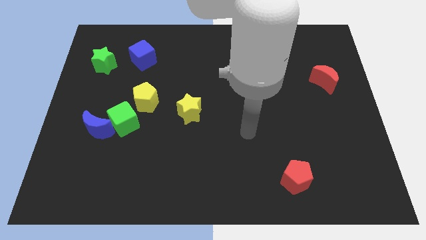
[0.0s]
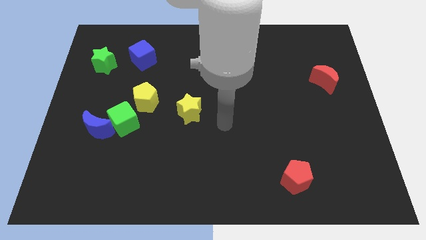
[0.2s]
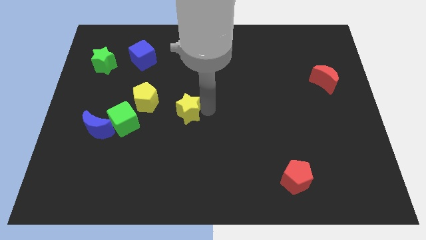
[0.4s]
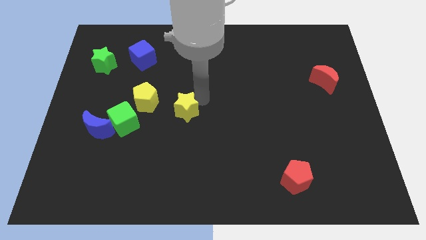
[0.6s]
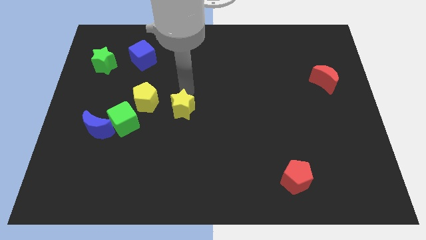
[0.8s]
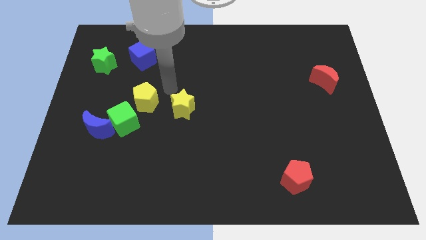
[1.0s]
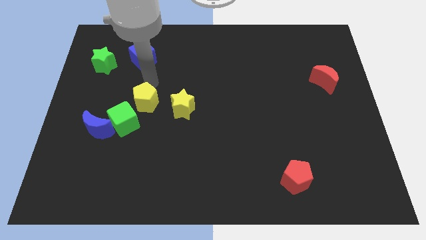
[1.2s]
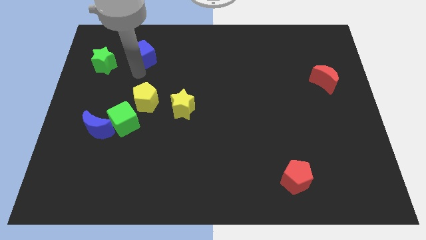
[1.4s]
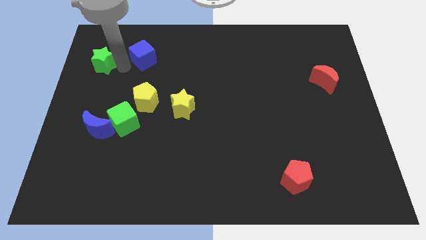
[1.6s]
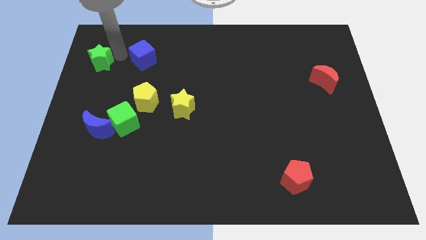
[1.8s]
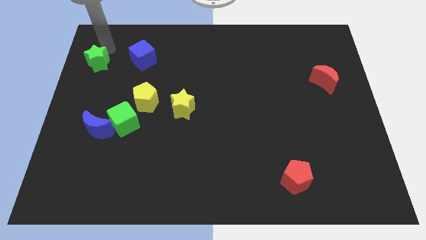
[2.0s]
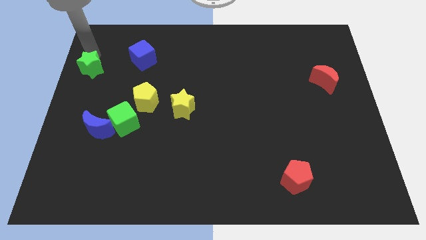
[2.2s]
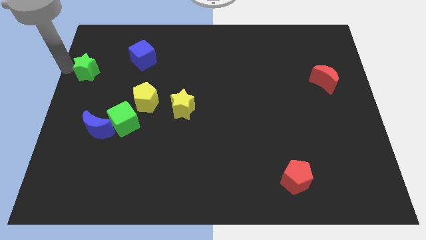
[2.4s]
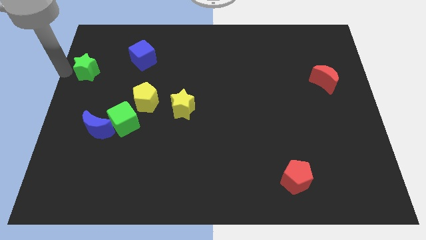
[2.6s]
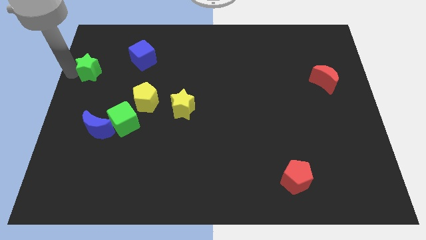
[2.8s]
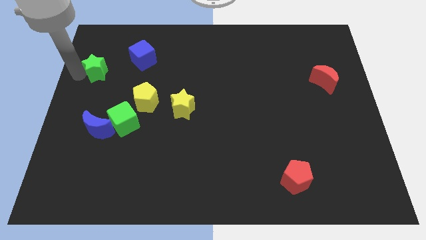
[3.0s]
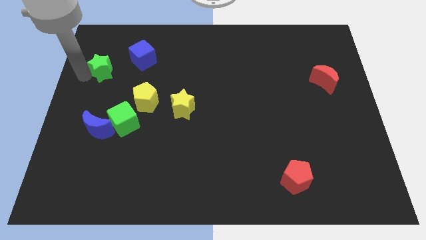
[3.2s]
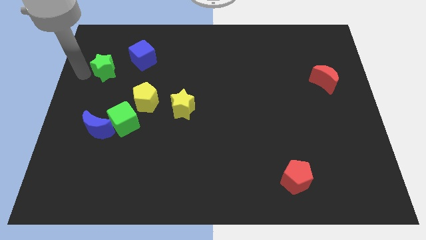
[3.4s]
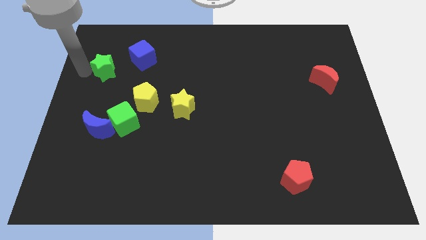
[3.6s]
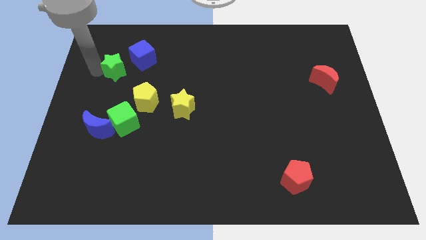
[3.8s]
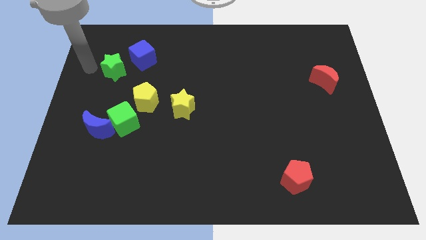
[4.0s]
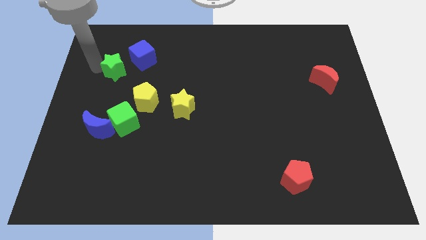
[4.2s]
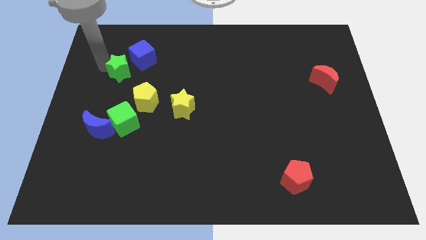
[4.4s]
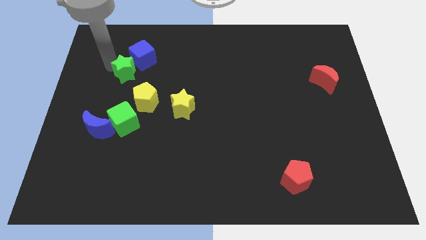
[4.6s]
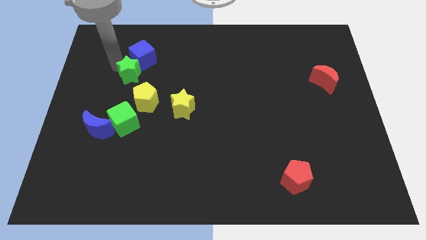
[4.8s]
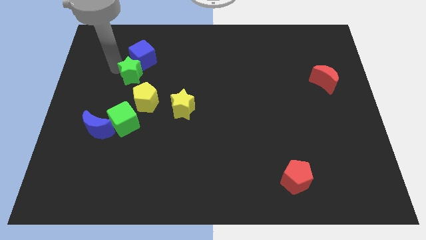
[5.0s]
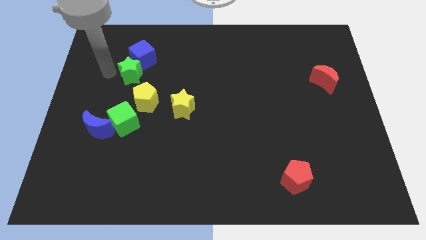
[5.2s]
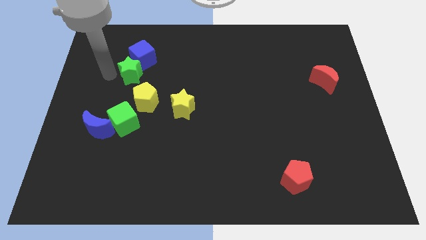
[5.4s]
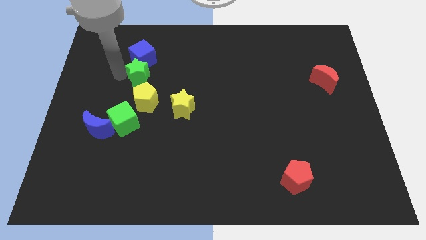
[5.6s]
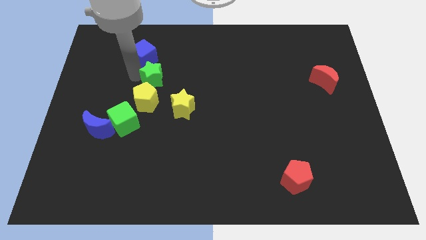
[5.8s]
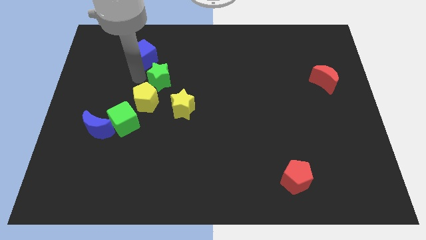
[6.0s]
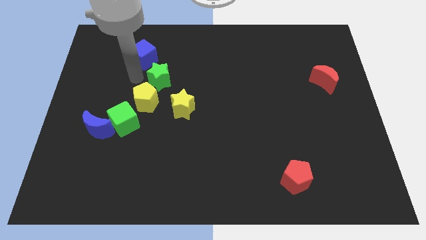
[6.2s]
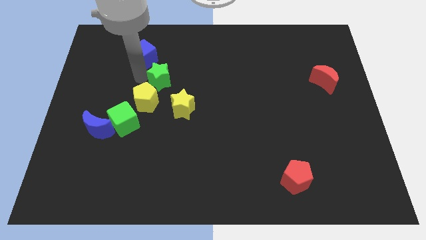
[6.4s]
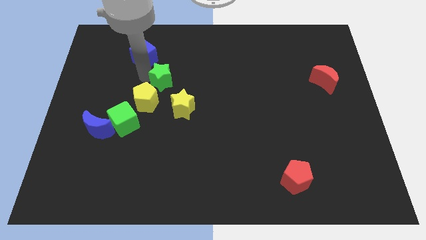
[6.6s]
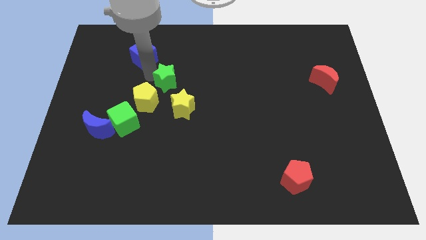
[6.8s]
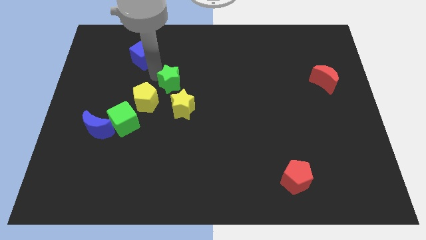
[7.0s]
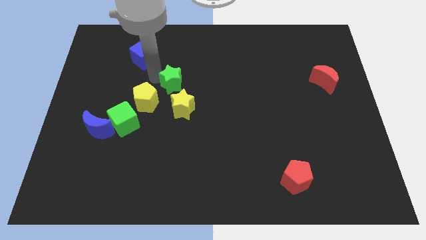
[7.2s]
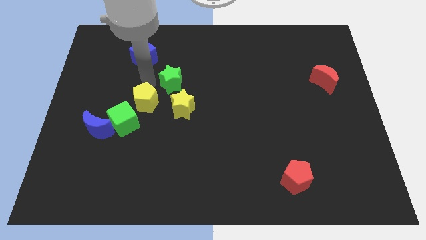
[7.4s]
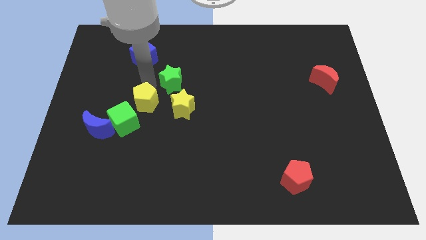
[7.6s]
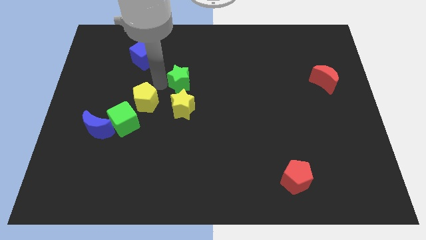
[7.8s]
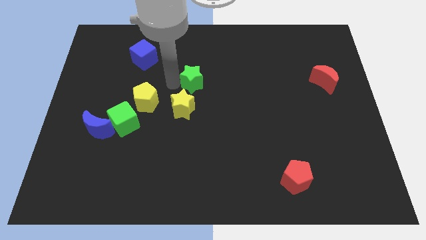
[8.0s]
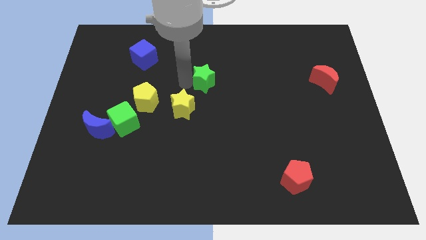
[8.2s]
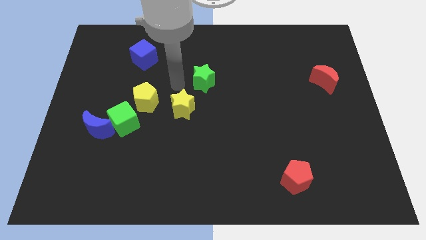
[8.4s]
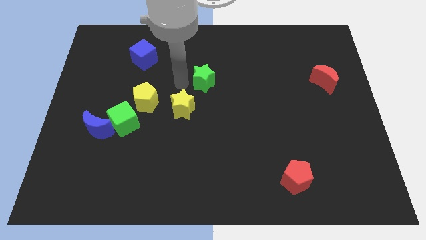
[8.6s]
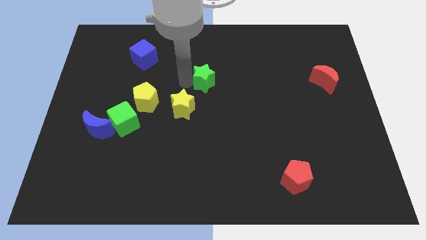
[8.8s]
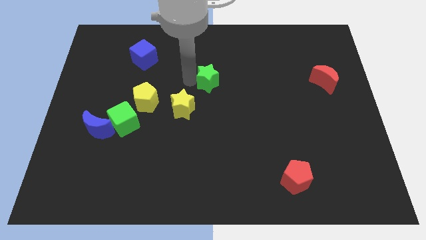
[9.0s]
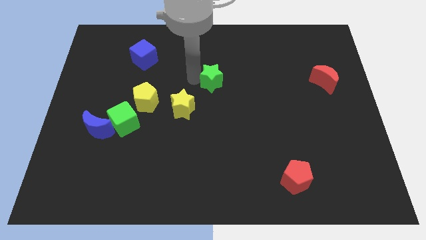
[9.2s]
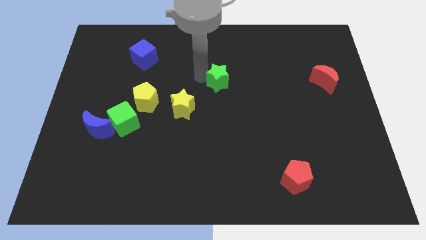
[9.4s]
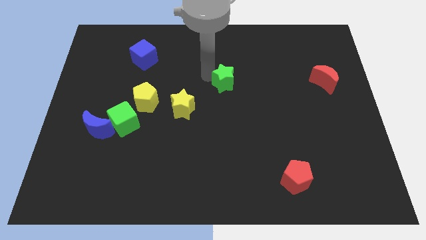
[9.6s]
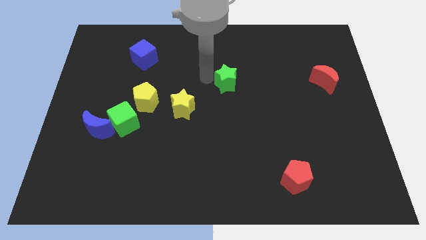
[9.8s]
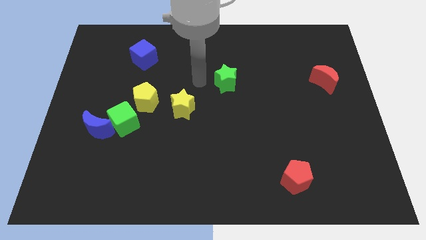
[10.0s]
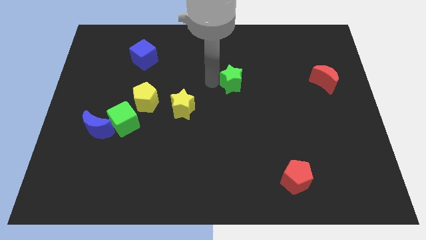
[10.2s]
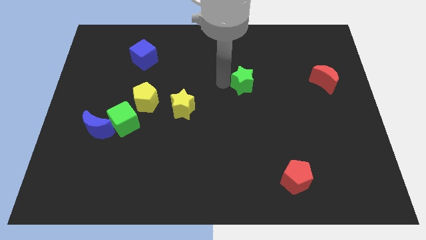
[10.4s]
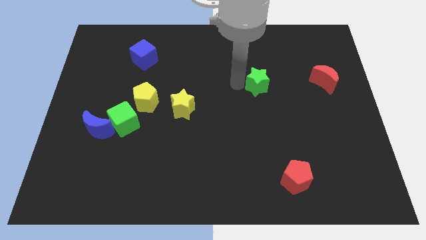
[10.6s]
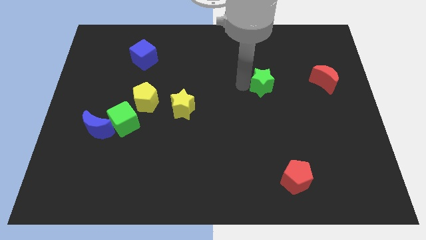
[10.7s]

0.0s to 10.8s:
move the green star just left of the red moon

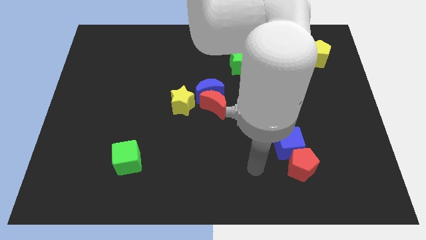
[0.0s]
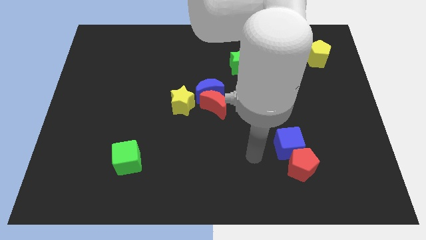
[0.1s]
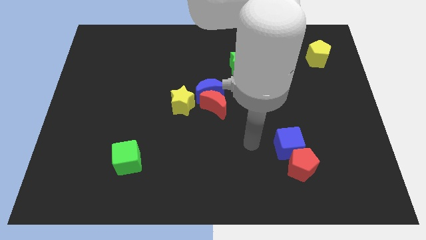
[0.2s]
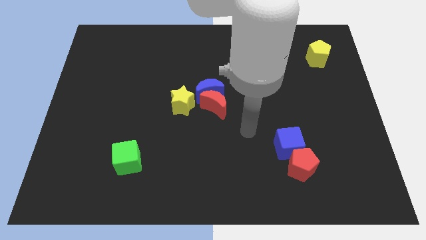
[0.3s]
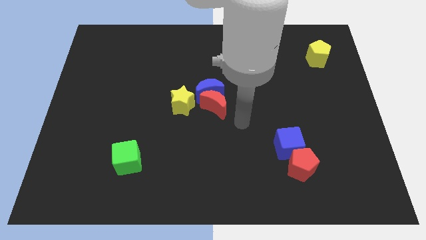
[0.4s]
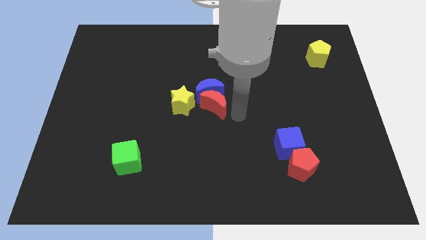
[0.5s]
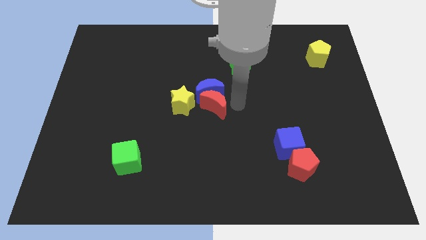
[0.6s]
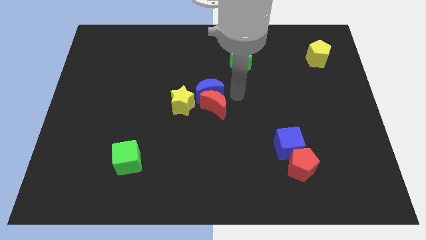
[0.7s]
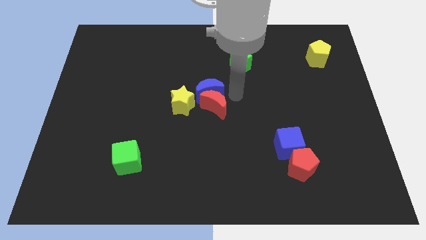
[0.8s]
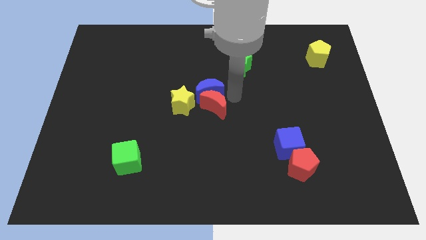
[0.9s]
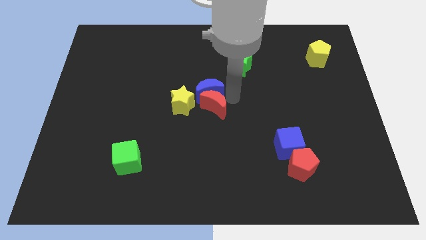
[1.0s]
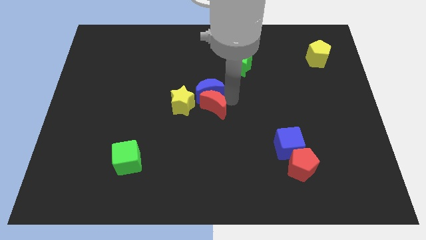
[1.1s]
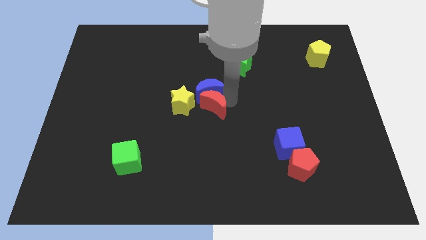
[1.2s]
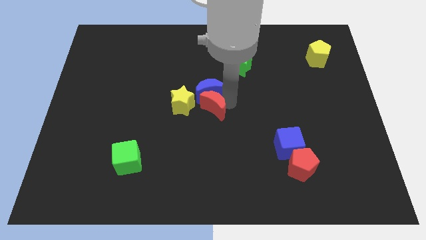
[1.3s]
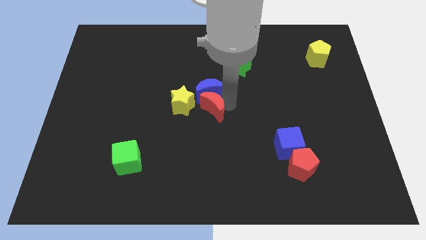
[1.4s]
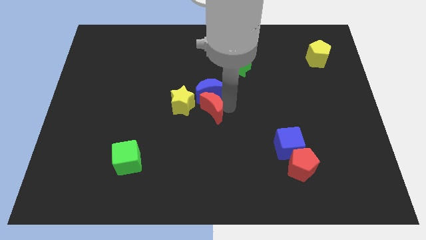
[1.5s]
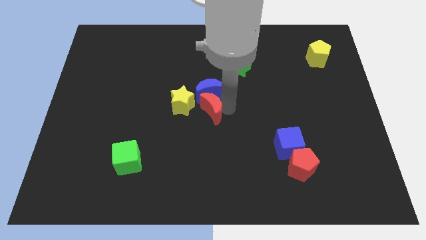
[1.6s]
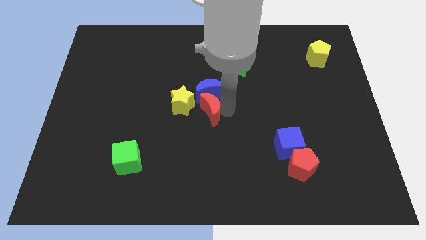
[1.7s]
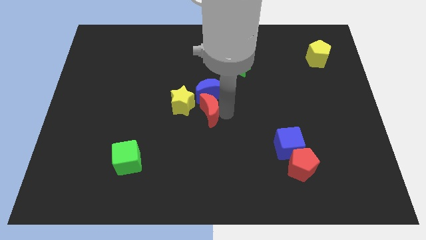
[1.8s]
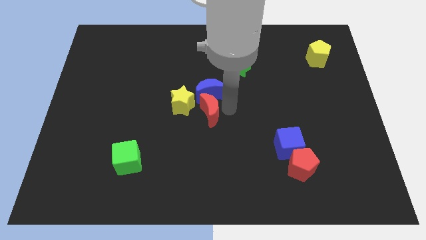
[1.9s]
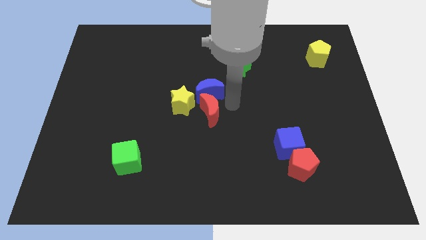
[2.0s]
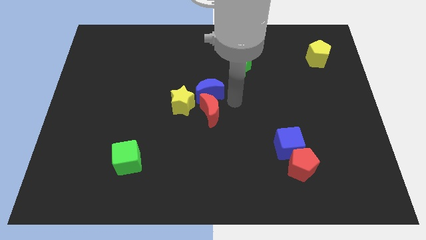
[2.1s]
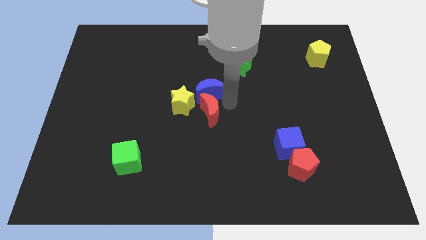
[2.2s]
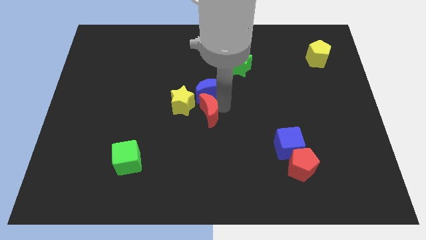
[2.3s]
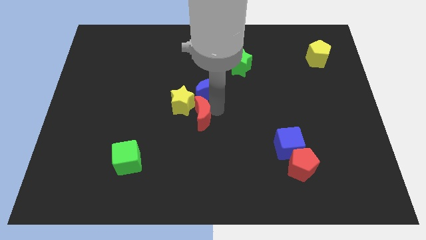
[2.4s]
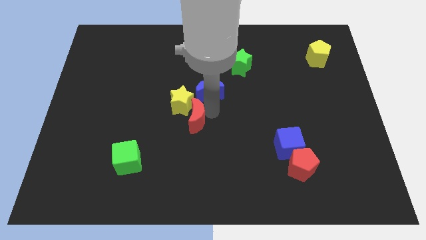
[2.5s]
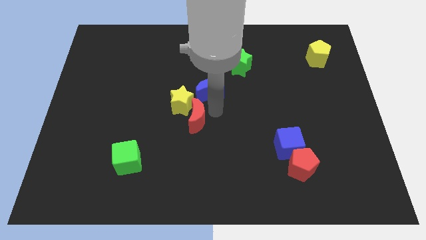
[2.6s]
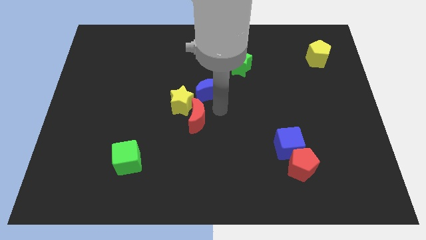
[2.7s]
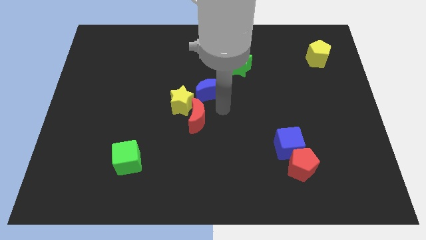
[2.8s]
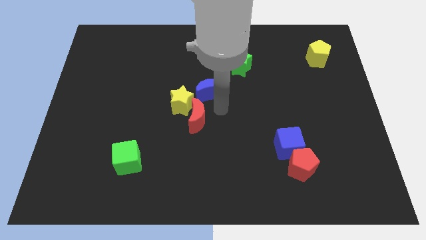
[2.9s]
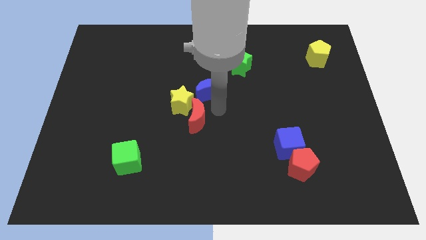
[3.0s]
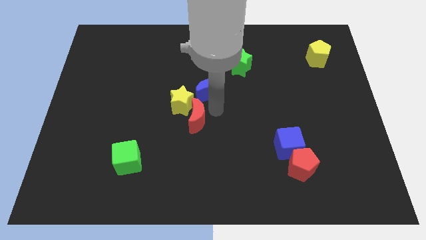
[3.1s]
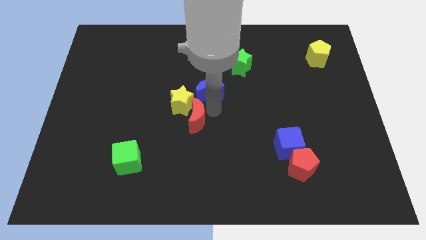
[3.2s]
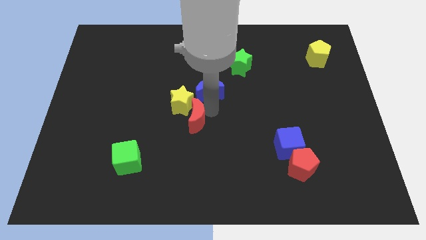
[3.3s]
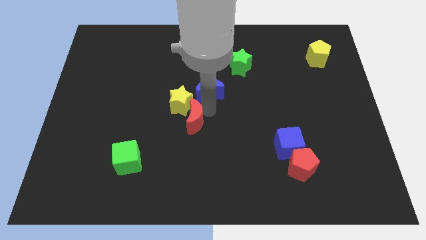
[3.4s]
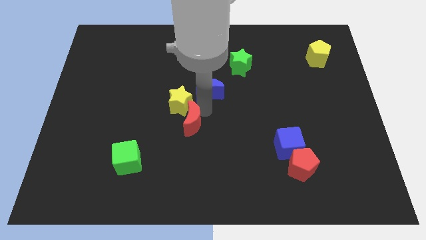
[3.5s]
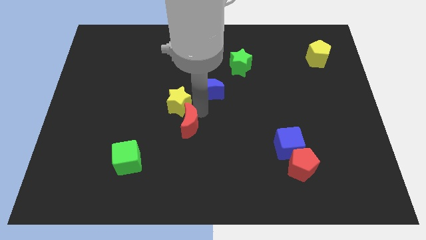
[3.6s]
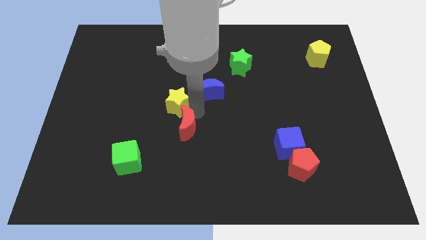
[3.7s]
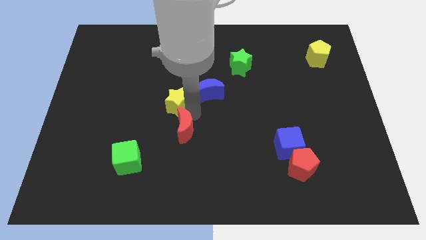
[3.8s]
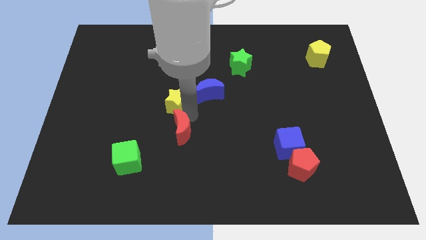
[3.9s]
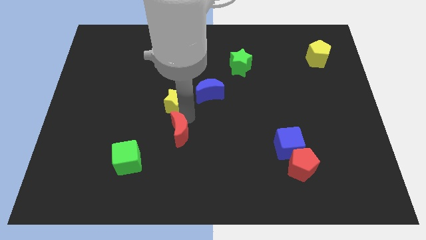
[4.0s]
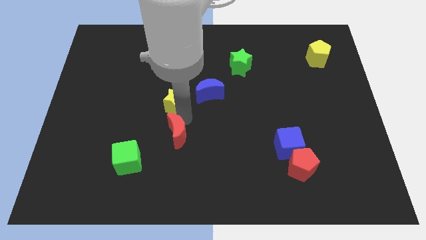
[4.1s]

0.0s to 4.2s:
push the red moon to the top right of the green cube
